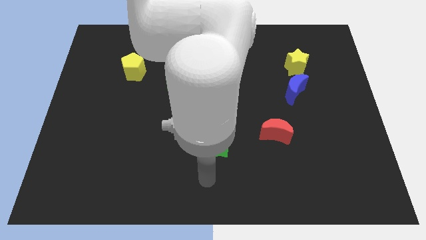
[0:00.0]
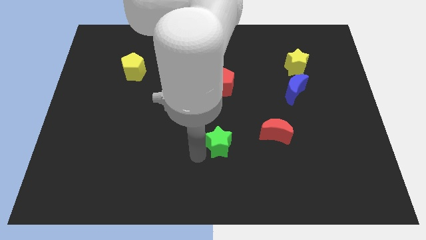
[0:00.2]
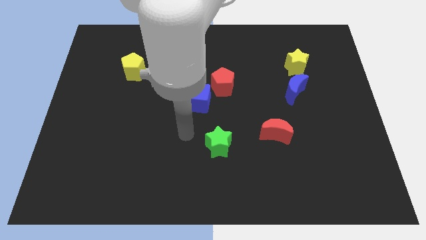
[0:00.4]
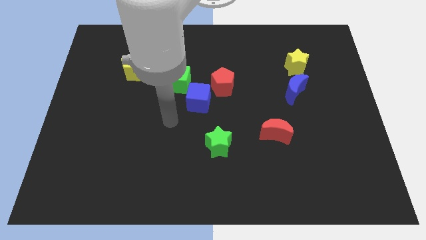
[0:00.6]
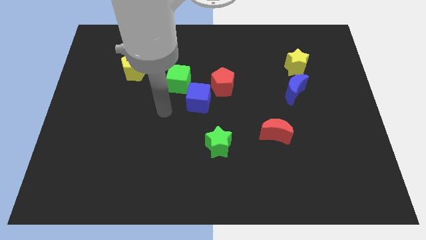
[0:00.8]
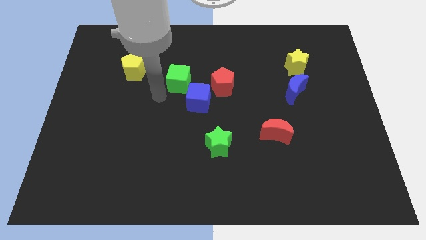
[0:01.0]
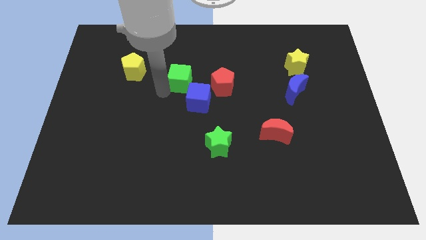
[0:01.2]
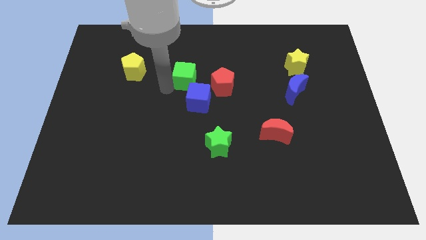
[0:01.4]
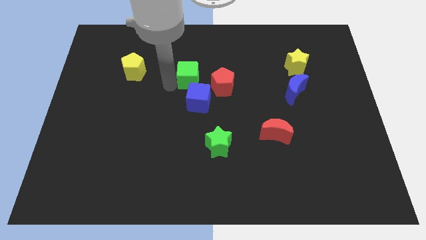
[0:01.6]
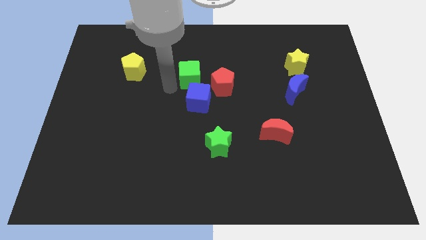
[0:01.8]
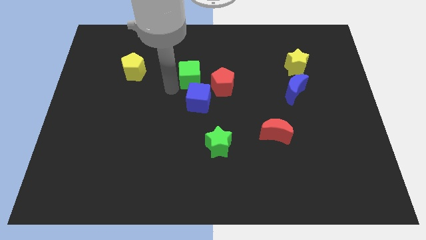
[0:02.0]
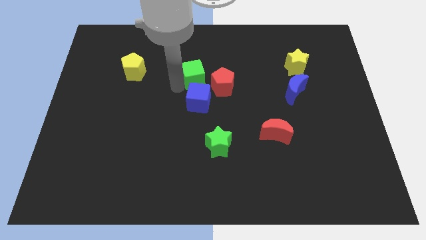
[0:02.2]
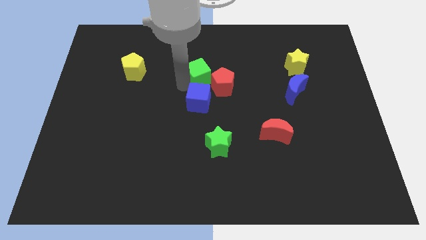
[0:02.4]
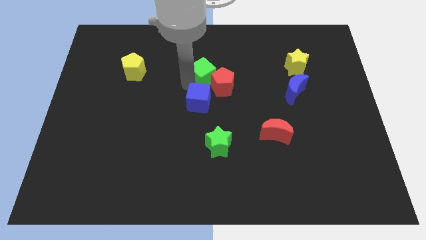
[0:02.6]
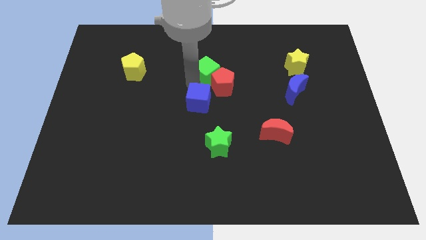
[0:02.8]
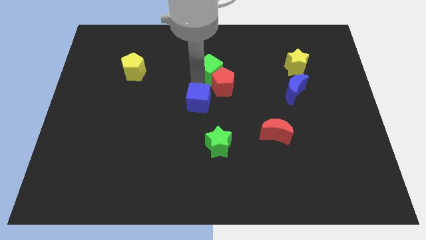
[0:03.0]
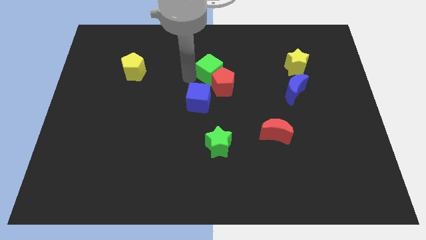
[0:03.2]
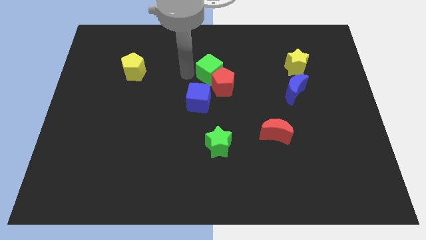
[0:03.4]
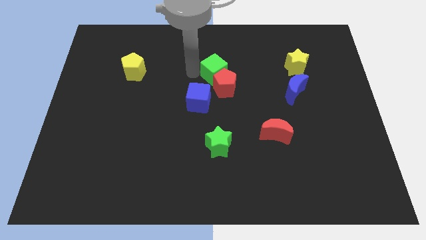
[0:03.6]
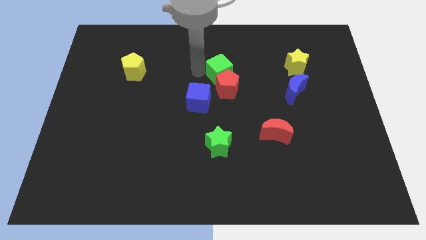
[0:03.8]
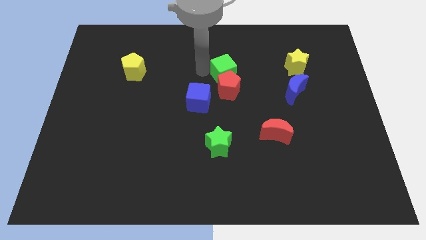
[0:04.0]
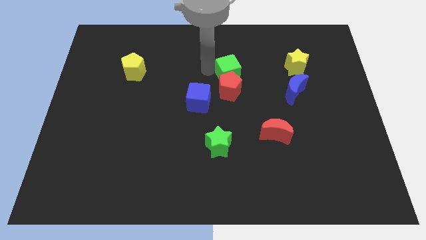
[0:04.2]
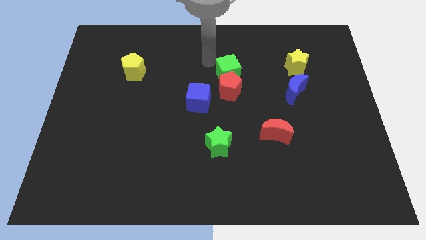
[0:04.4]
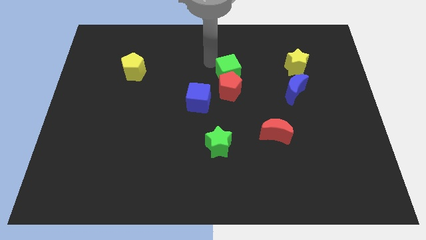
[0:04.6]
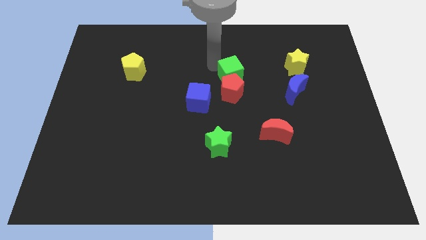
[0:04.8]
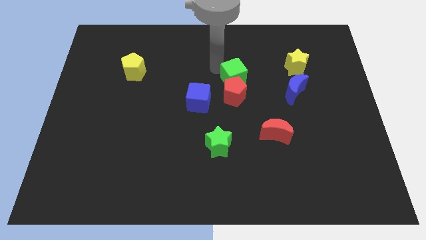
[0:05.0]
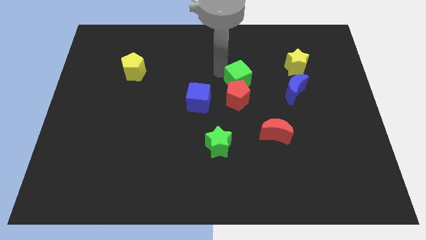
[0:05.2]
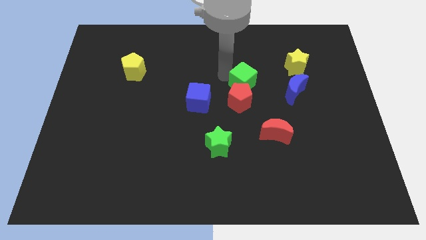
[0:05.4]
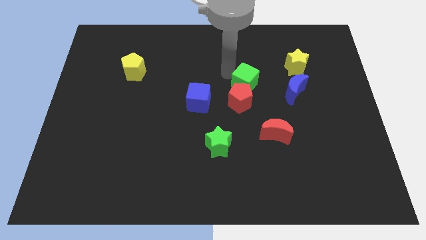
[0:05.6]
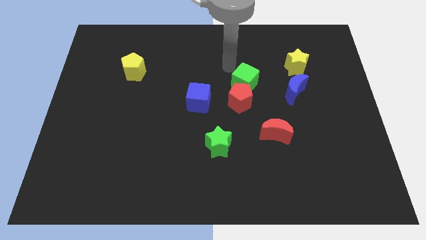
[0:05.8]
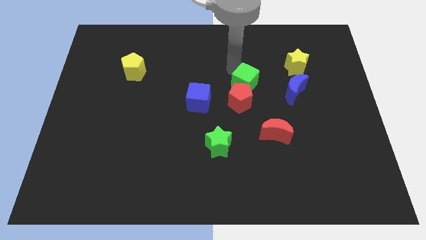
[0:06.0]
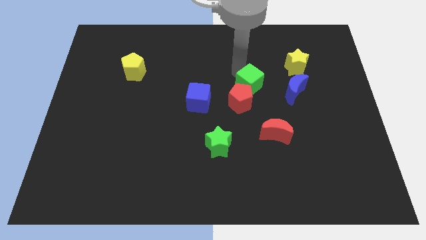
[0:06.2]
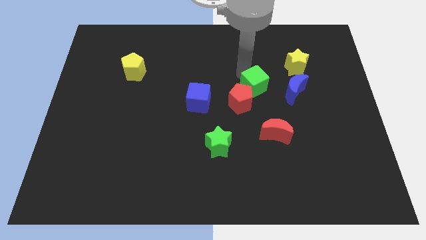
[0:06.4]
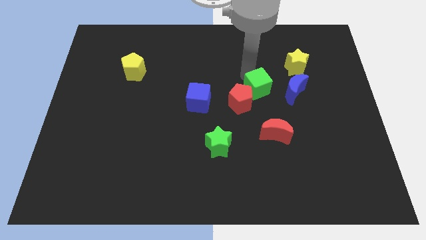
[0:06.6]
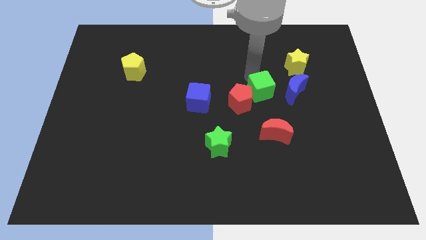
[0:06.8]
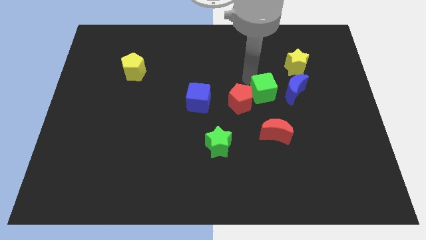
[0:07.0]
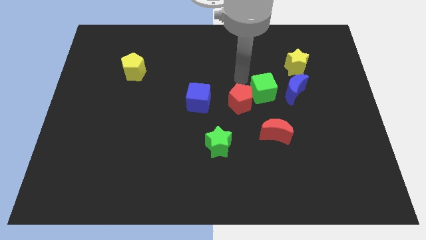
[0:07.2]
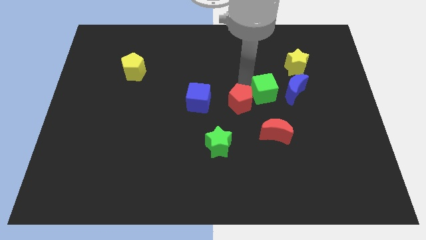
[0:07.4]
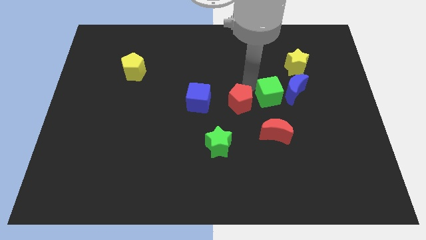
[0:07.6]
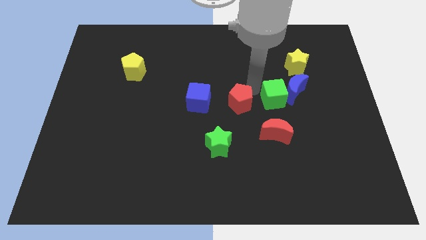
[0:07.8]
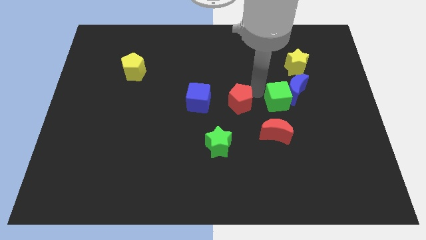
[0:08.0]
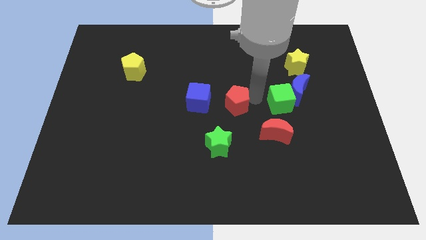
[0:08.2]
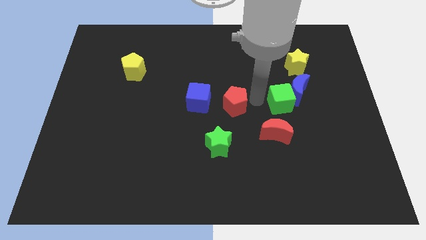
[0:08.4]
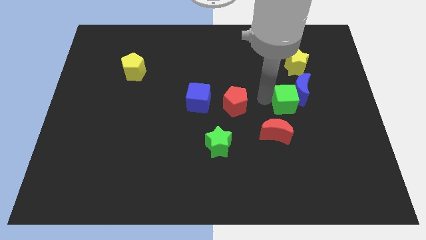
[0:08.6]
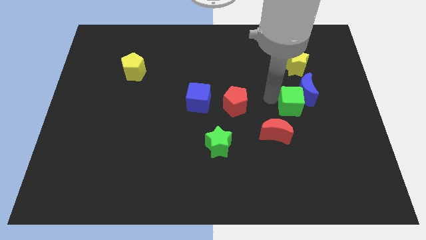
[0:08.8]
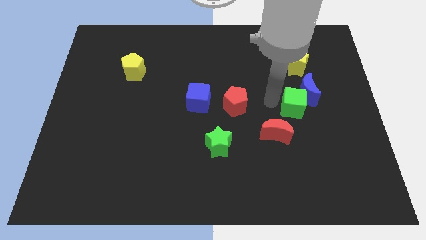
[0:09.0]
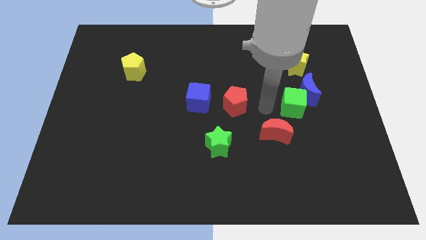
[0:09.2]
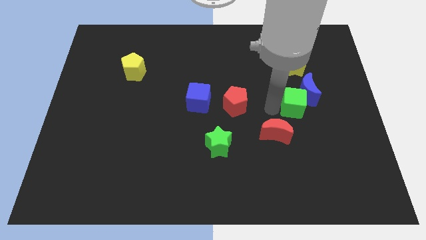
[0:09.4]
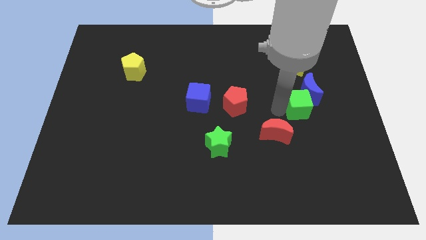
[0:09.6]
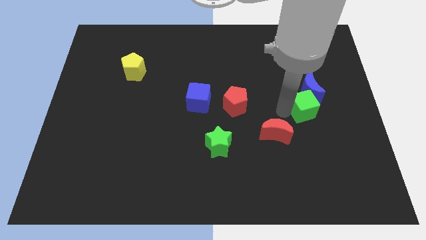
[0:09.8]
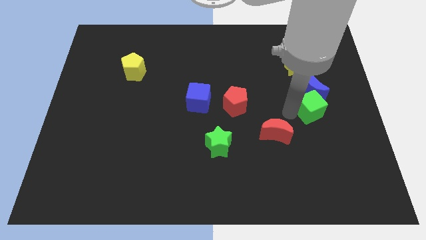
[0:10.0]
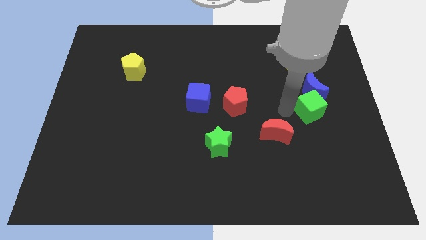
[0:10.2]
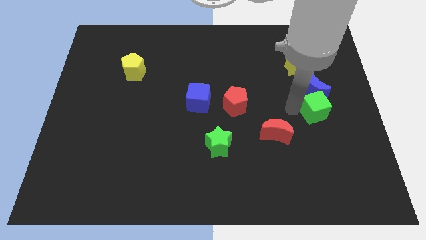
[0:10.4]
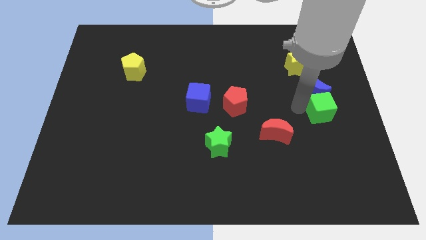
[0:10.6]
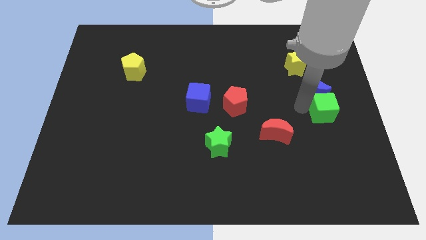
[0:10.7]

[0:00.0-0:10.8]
move the green cube to the right side

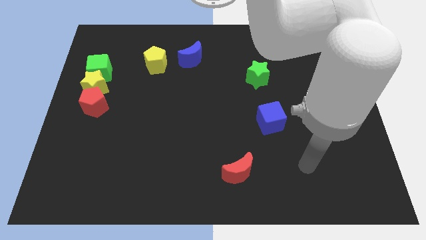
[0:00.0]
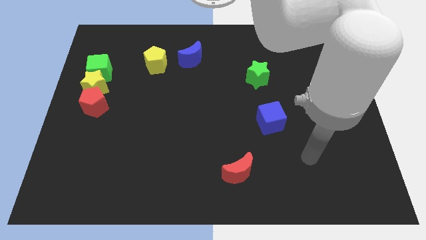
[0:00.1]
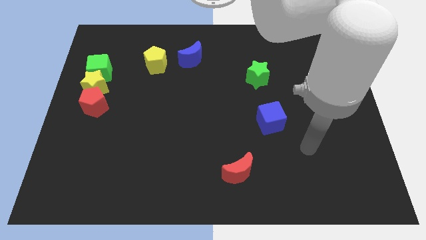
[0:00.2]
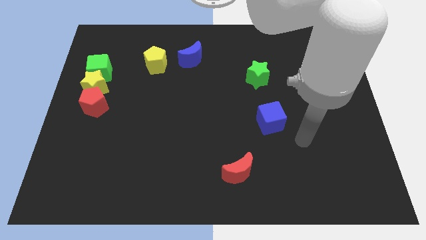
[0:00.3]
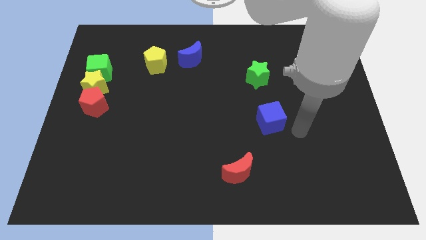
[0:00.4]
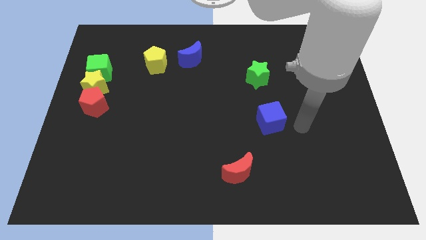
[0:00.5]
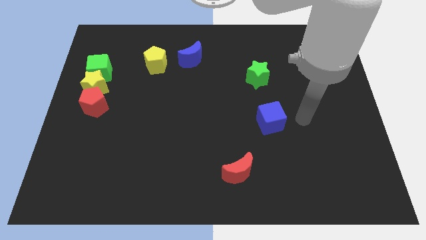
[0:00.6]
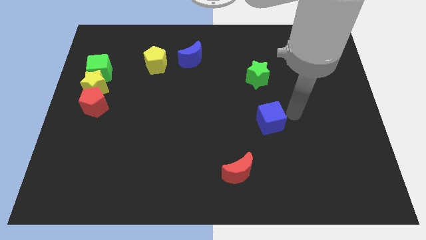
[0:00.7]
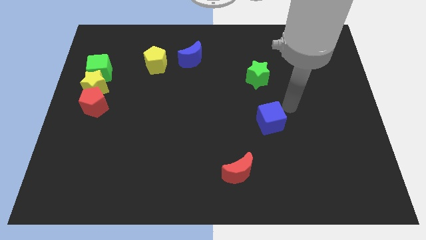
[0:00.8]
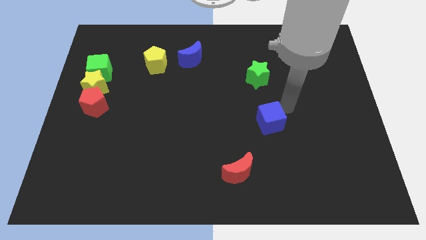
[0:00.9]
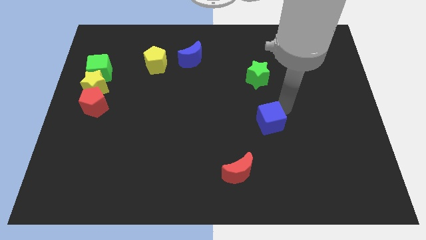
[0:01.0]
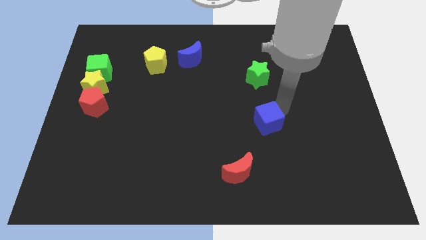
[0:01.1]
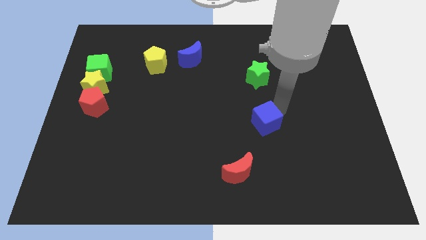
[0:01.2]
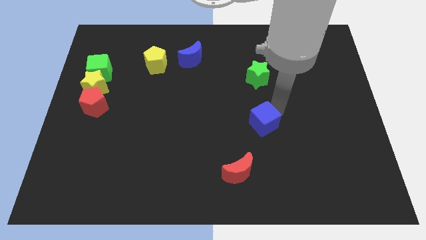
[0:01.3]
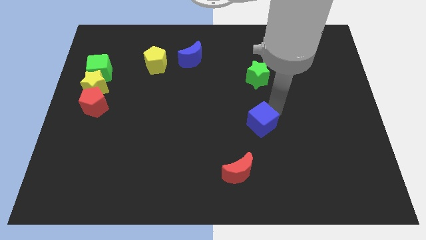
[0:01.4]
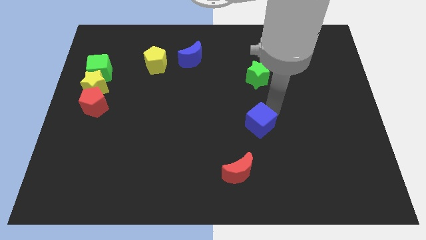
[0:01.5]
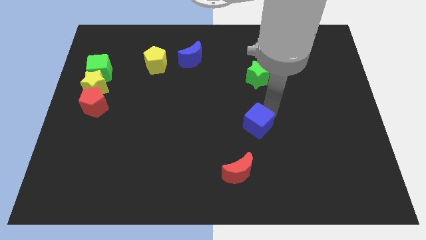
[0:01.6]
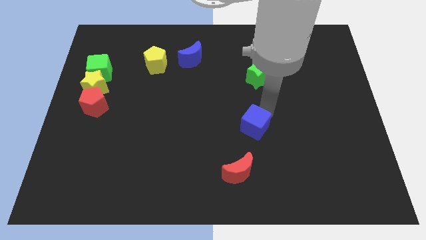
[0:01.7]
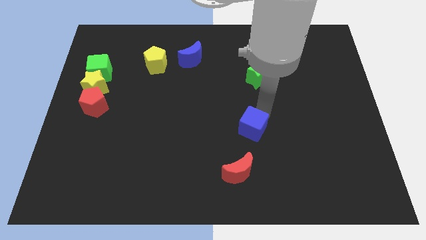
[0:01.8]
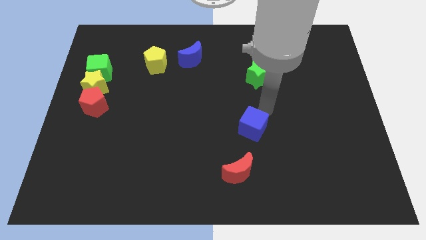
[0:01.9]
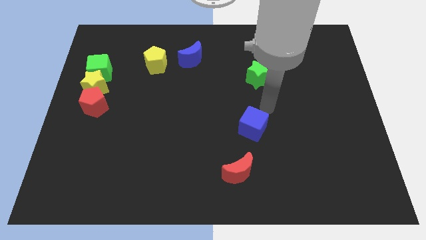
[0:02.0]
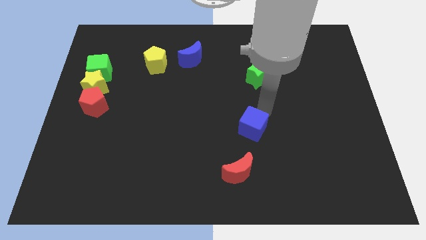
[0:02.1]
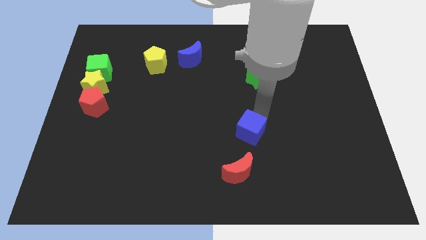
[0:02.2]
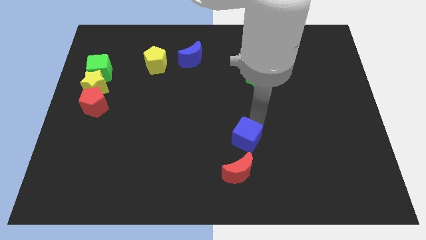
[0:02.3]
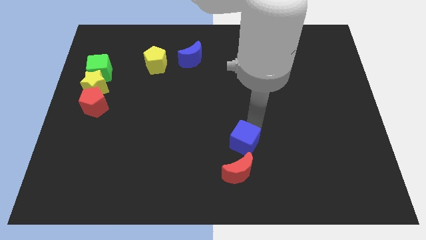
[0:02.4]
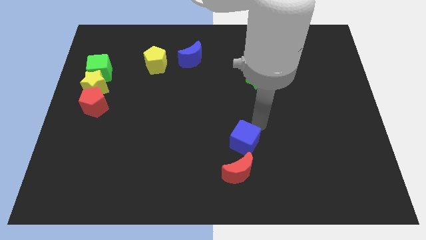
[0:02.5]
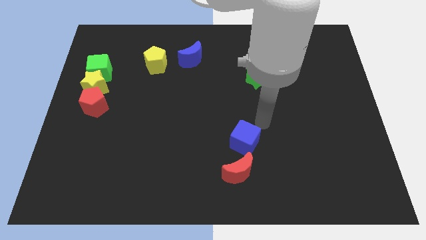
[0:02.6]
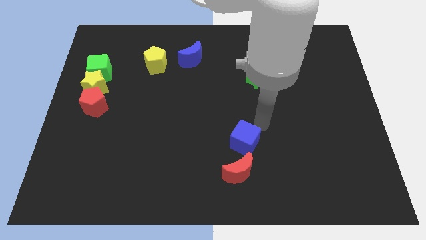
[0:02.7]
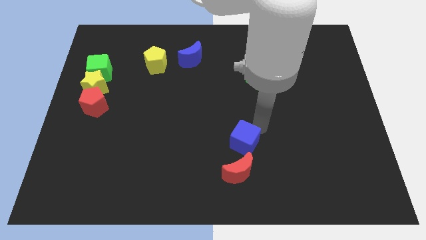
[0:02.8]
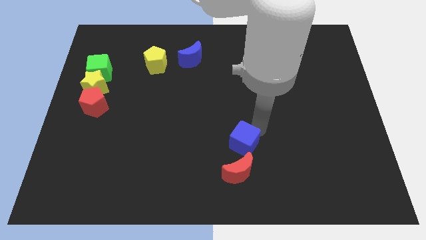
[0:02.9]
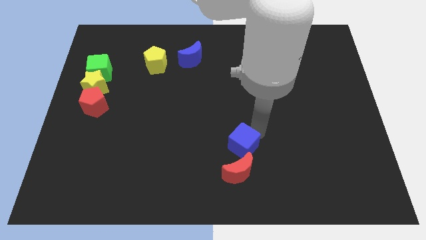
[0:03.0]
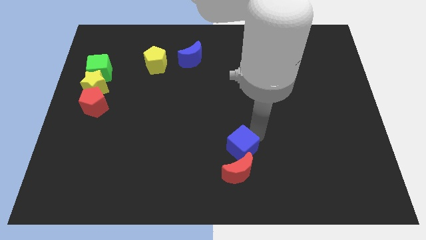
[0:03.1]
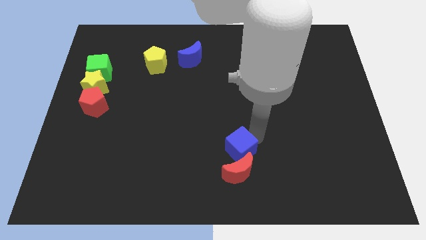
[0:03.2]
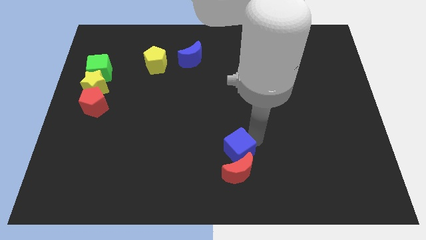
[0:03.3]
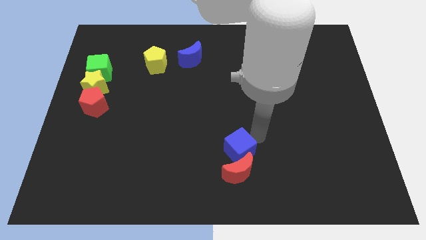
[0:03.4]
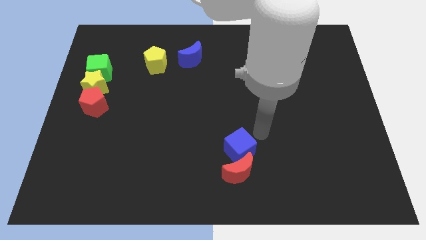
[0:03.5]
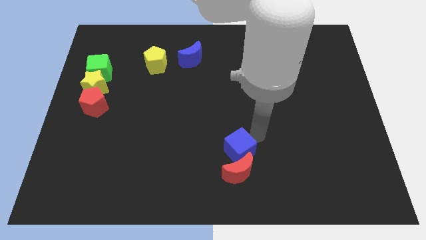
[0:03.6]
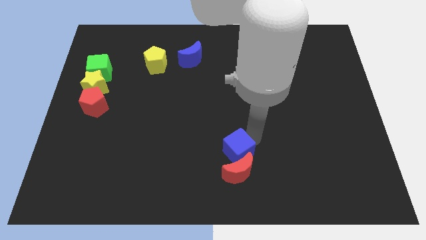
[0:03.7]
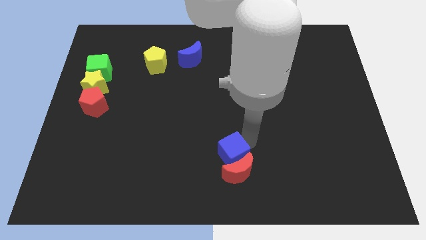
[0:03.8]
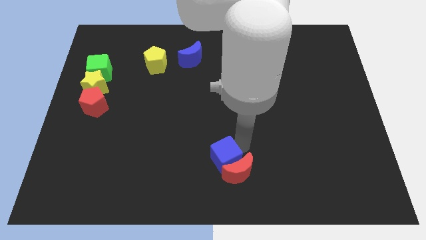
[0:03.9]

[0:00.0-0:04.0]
slide the blue cube to the bottom
